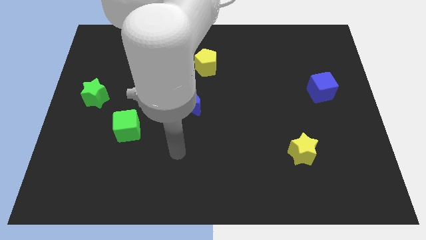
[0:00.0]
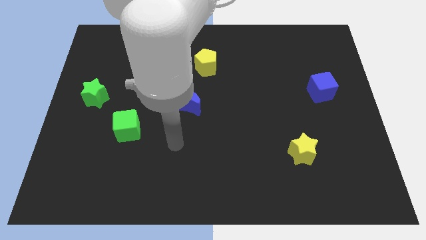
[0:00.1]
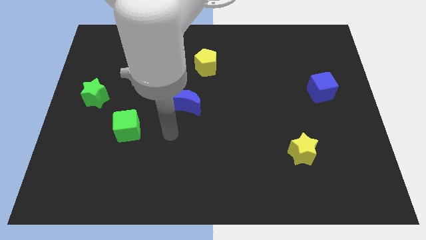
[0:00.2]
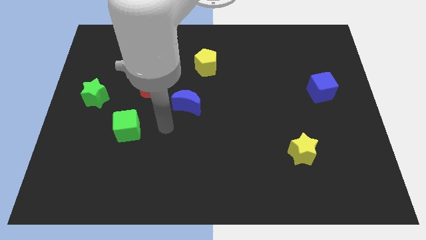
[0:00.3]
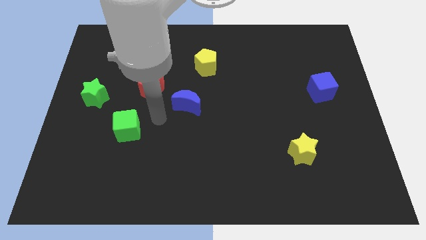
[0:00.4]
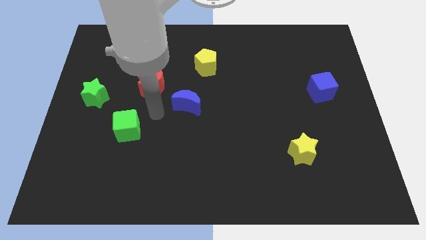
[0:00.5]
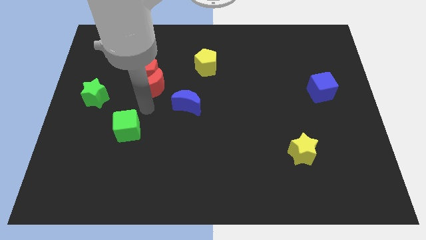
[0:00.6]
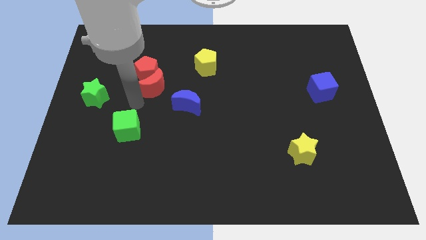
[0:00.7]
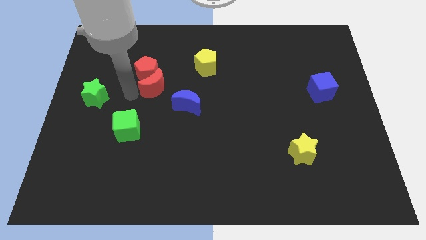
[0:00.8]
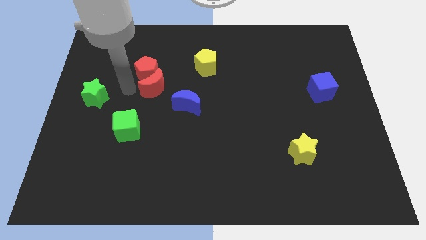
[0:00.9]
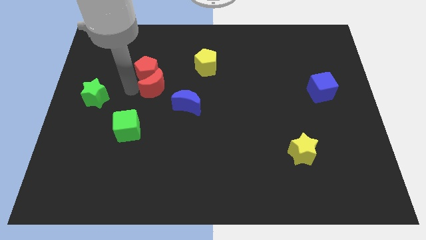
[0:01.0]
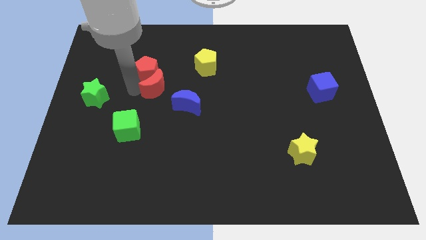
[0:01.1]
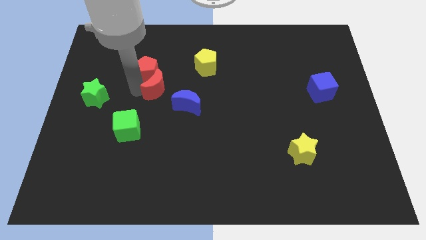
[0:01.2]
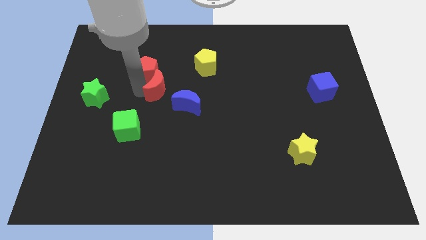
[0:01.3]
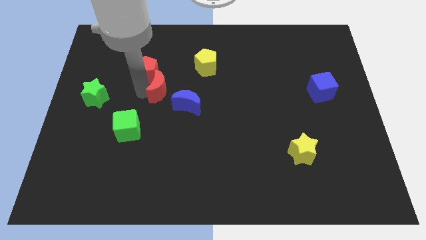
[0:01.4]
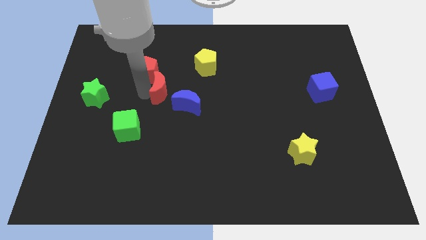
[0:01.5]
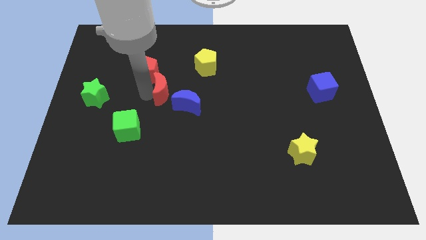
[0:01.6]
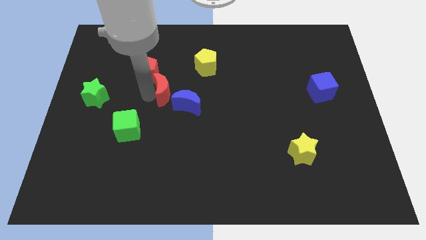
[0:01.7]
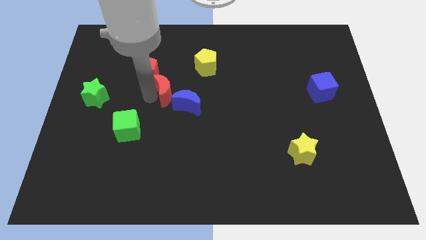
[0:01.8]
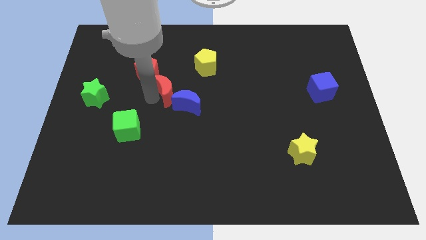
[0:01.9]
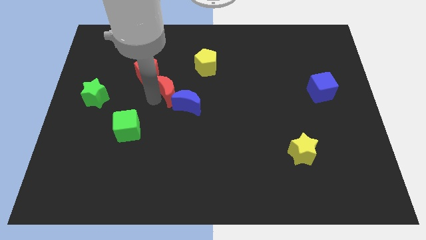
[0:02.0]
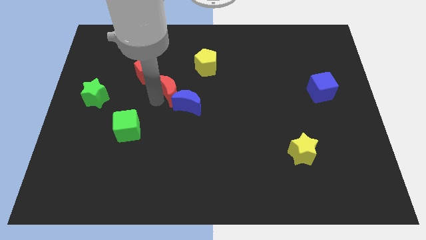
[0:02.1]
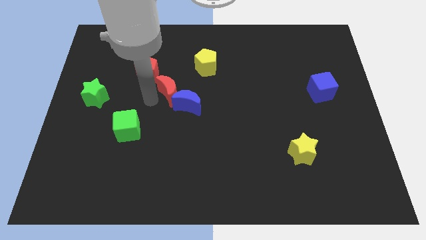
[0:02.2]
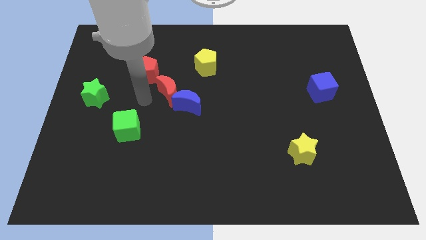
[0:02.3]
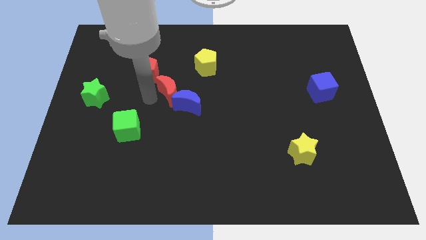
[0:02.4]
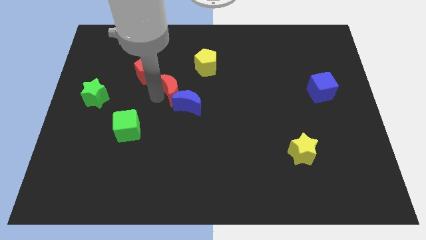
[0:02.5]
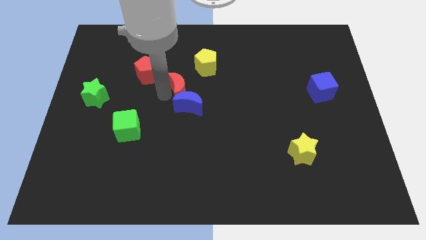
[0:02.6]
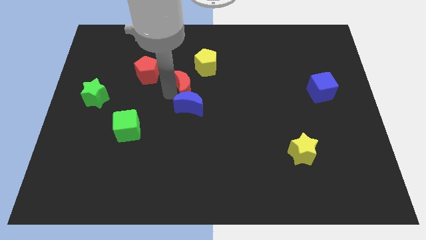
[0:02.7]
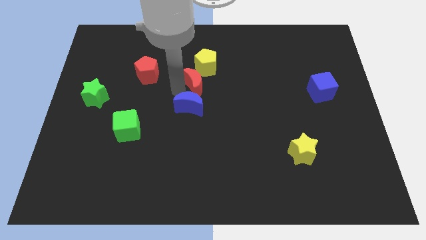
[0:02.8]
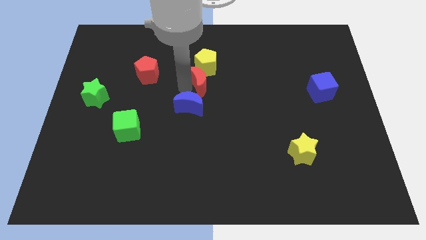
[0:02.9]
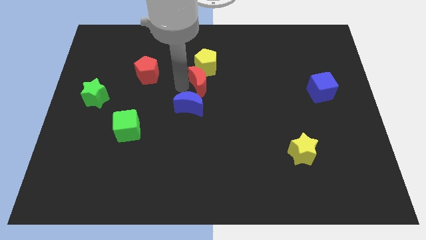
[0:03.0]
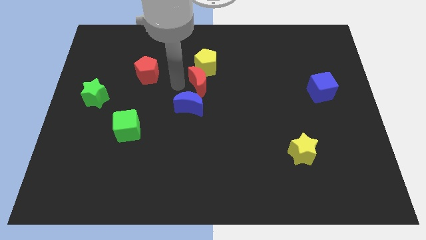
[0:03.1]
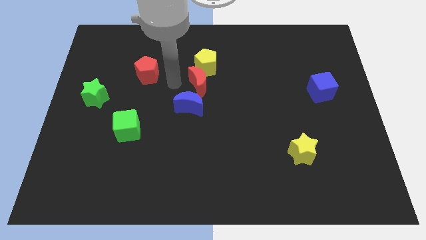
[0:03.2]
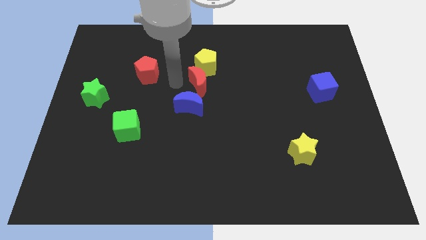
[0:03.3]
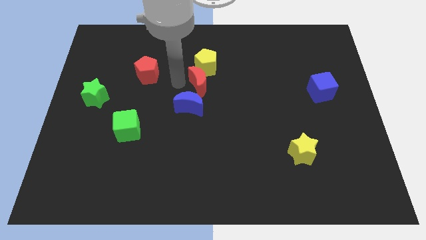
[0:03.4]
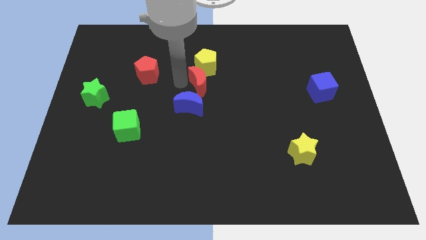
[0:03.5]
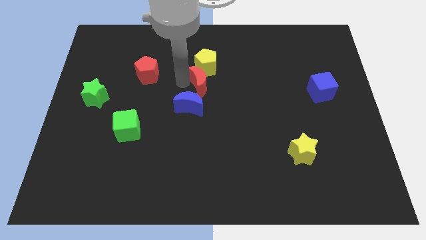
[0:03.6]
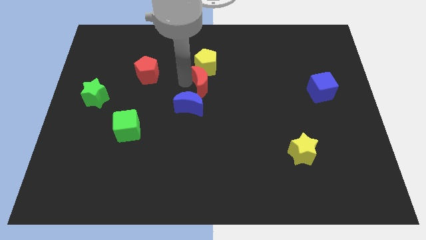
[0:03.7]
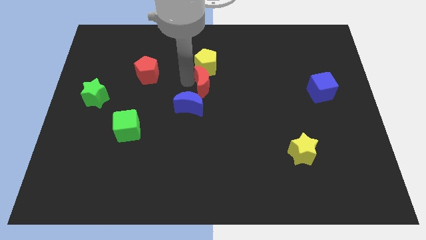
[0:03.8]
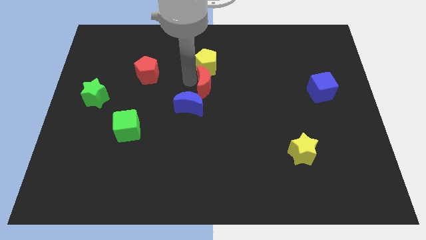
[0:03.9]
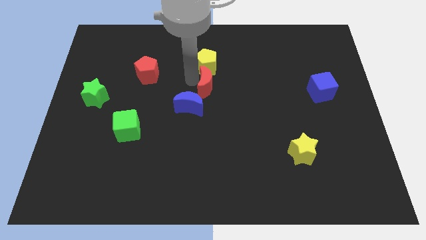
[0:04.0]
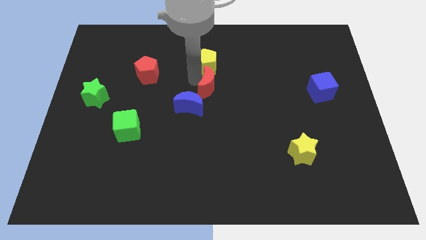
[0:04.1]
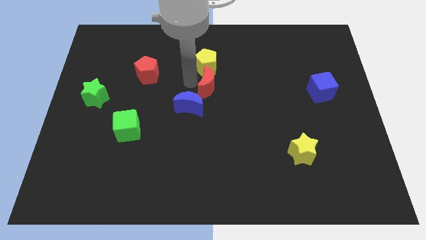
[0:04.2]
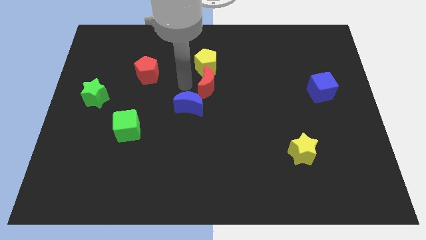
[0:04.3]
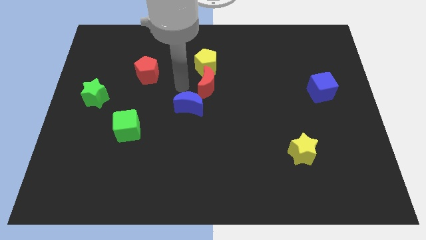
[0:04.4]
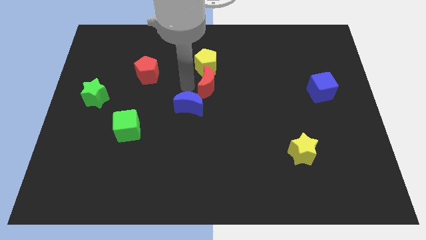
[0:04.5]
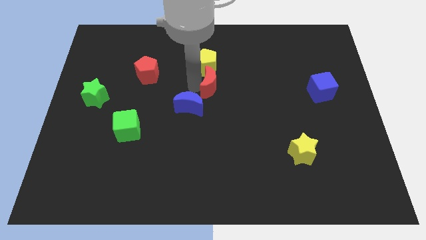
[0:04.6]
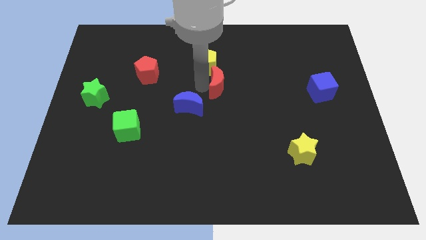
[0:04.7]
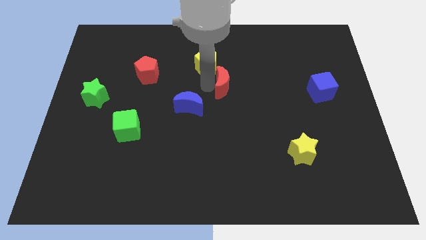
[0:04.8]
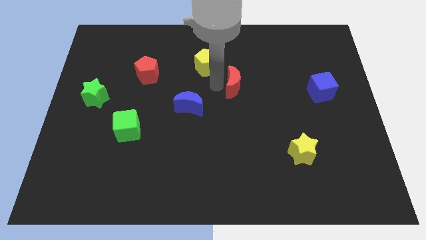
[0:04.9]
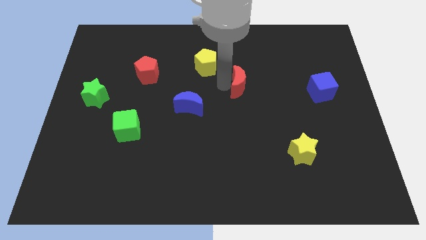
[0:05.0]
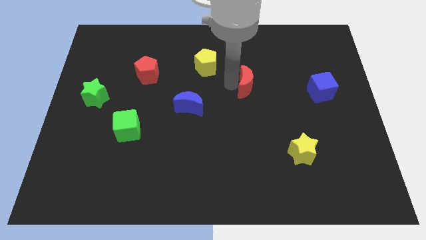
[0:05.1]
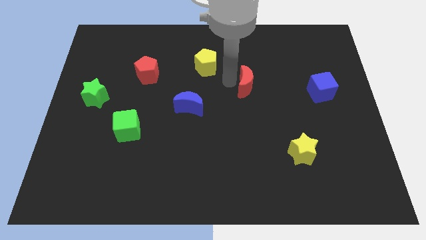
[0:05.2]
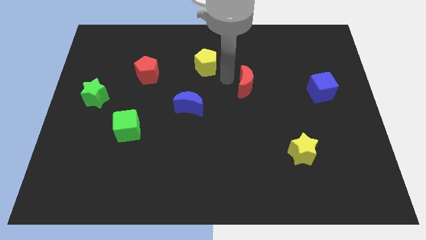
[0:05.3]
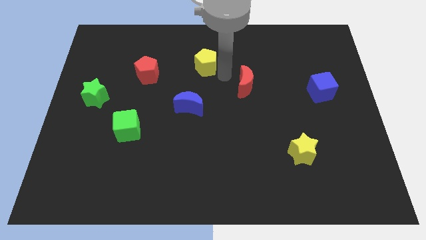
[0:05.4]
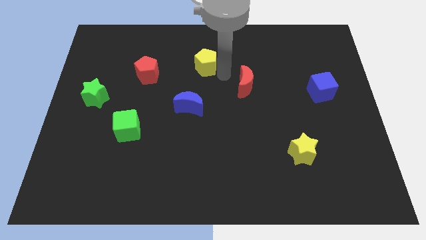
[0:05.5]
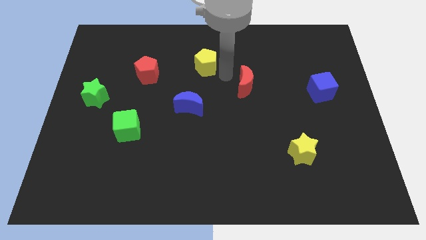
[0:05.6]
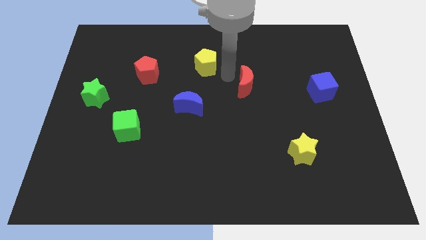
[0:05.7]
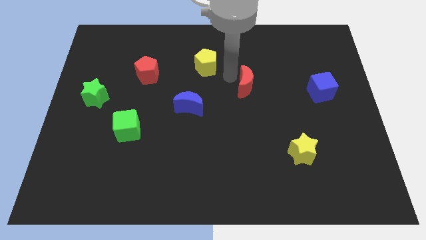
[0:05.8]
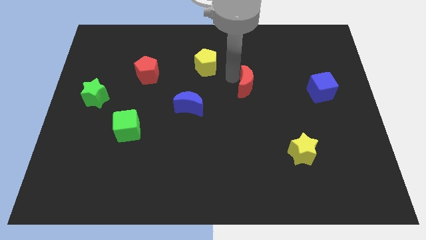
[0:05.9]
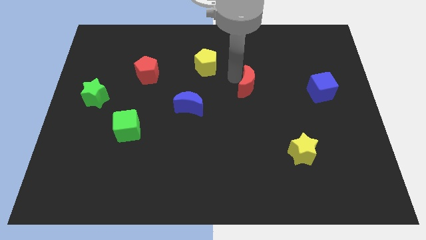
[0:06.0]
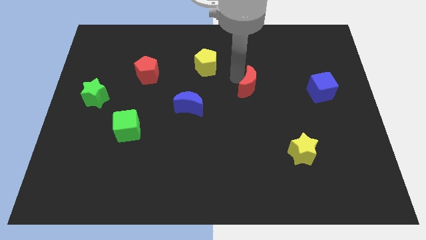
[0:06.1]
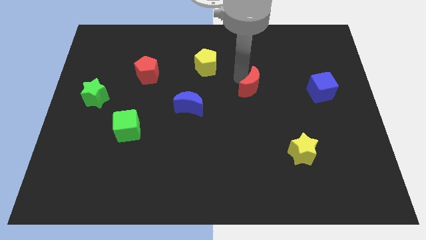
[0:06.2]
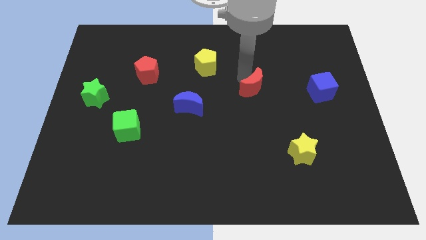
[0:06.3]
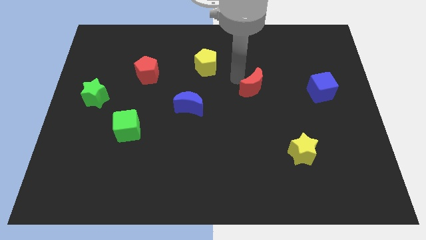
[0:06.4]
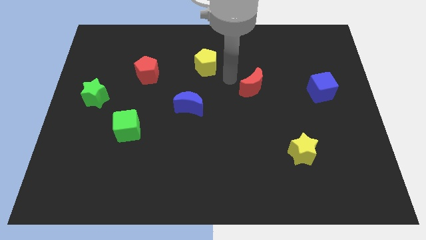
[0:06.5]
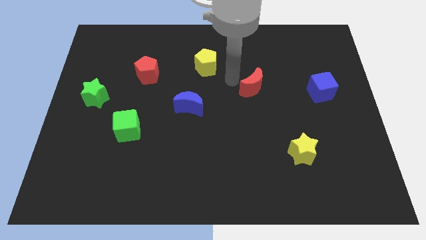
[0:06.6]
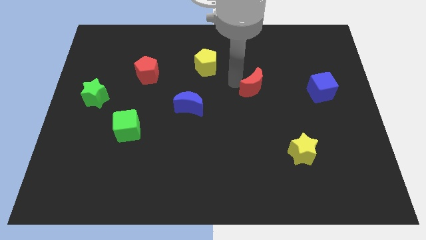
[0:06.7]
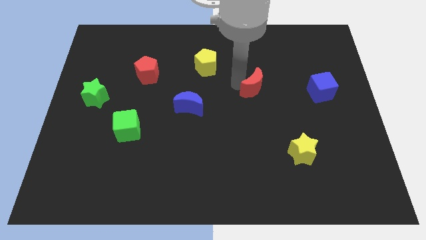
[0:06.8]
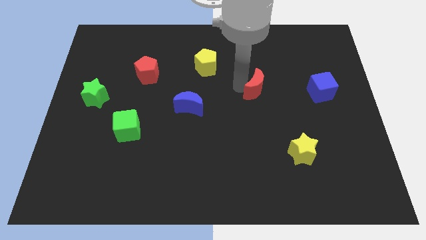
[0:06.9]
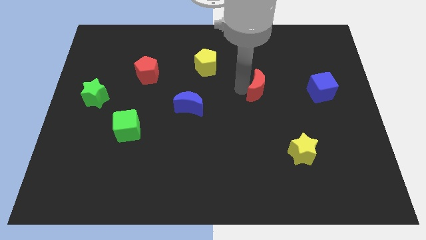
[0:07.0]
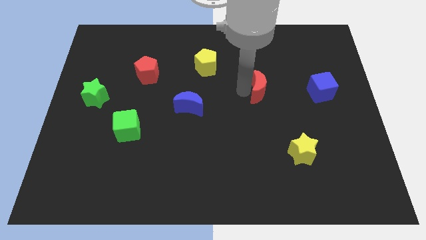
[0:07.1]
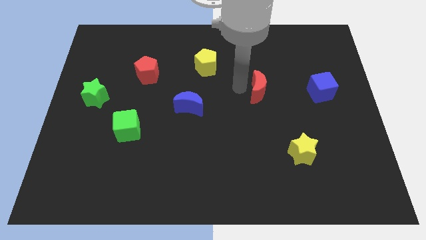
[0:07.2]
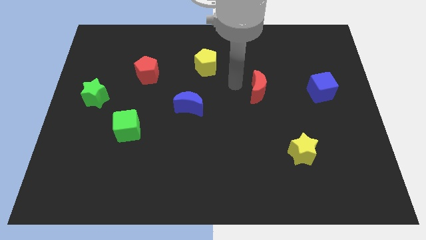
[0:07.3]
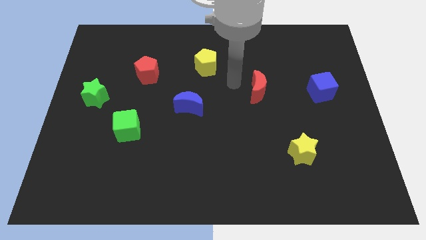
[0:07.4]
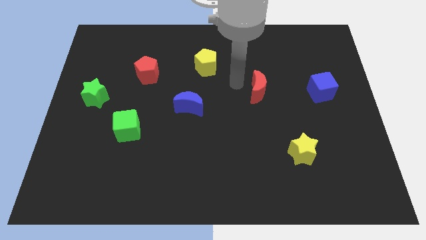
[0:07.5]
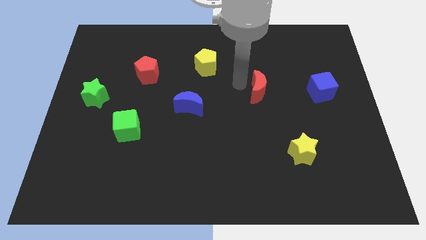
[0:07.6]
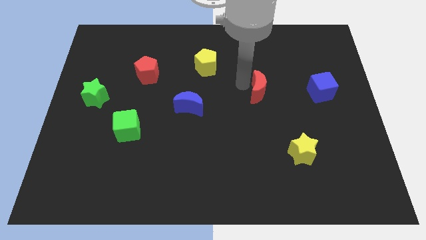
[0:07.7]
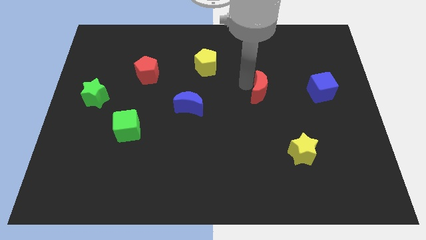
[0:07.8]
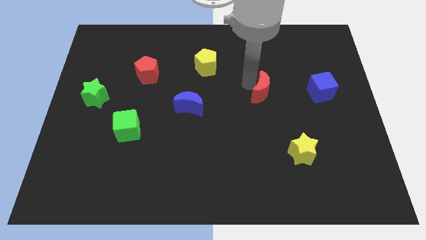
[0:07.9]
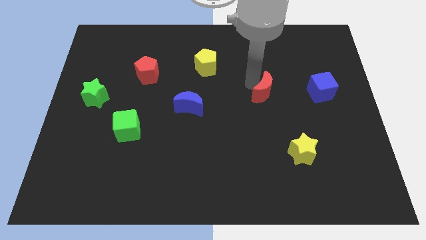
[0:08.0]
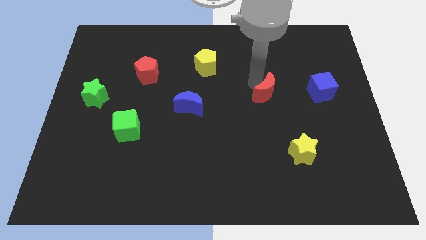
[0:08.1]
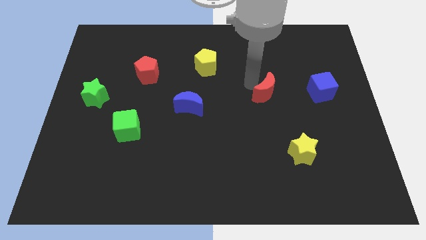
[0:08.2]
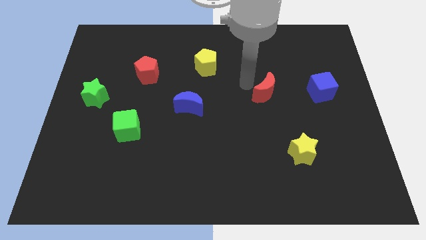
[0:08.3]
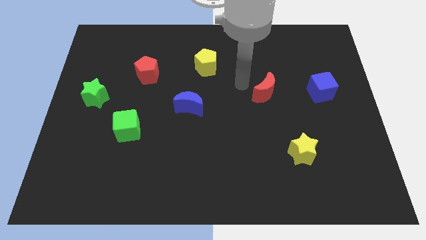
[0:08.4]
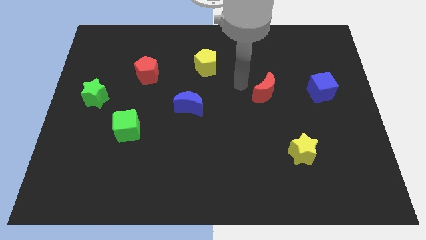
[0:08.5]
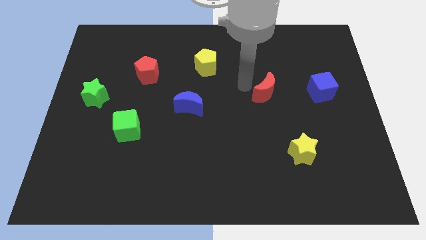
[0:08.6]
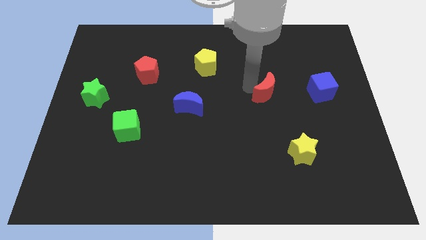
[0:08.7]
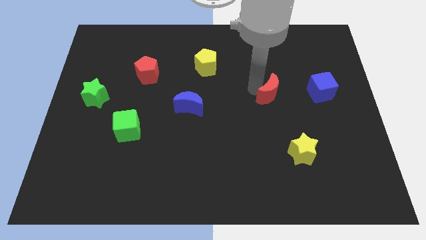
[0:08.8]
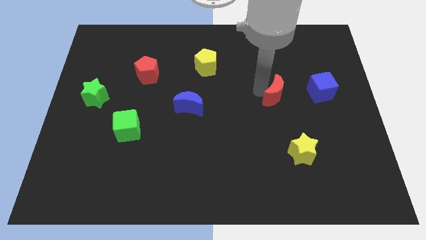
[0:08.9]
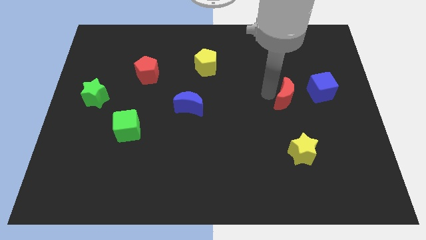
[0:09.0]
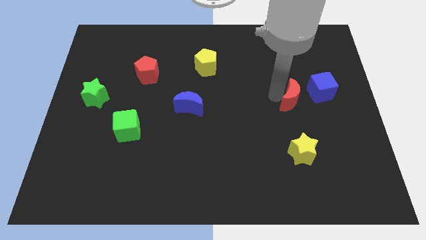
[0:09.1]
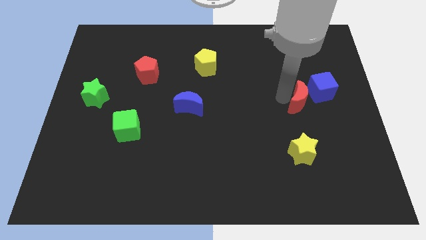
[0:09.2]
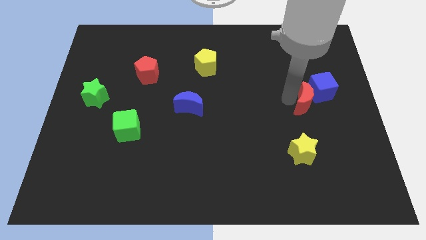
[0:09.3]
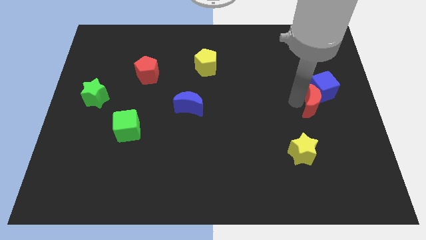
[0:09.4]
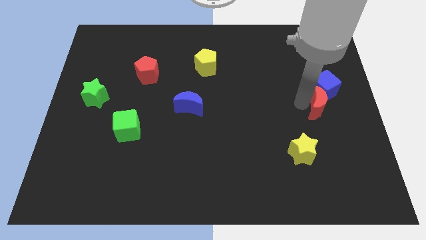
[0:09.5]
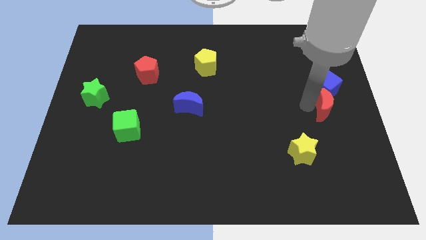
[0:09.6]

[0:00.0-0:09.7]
push the red moon to the center right
